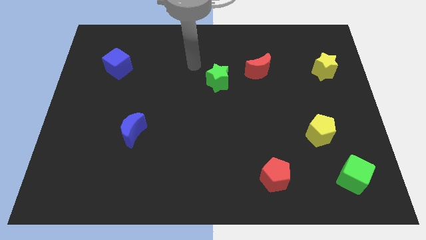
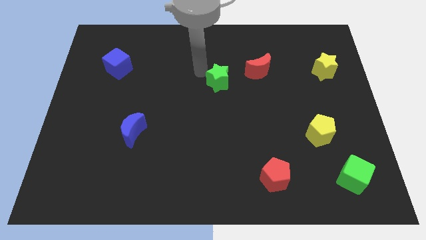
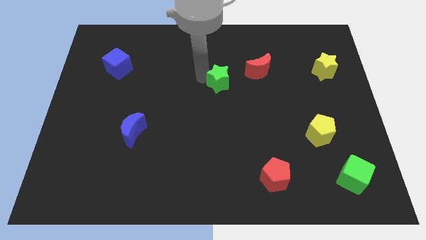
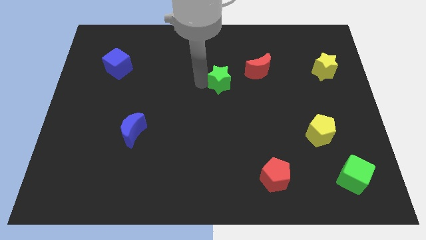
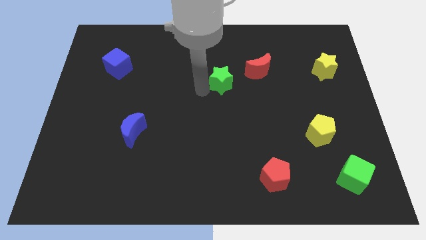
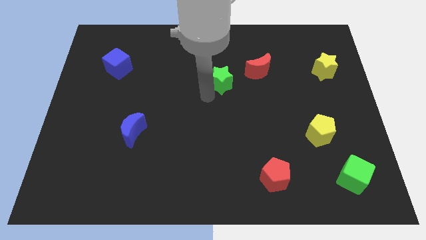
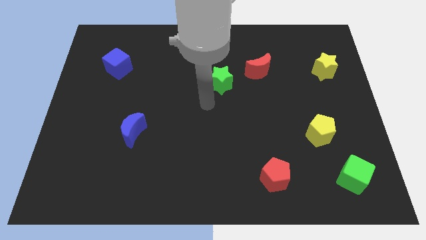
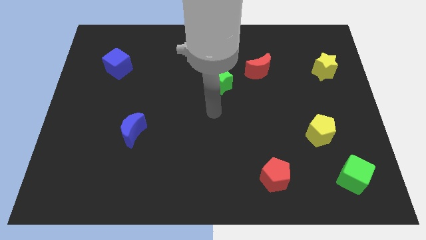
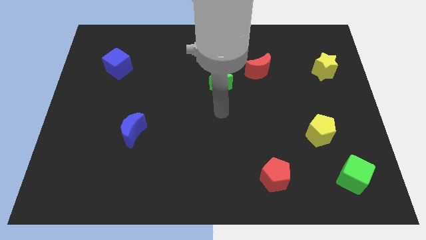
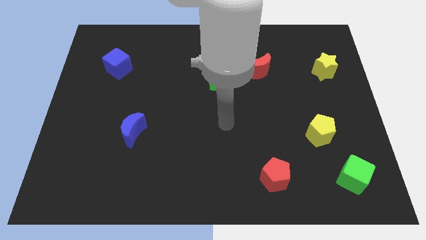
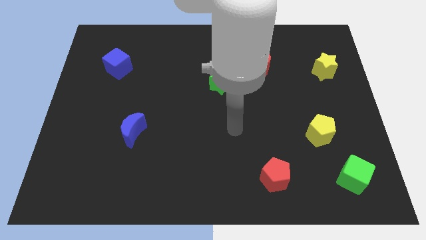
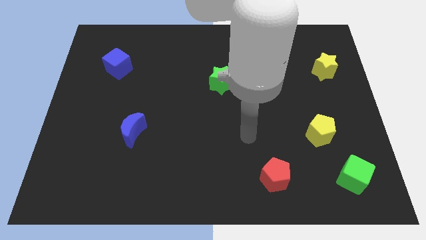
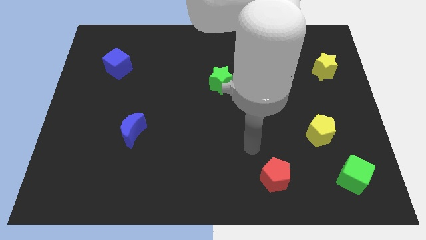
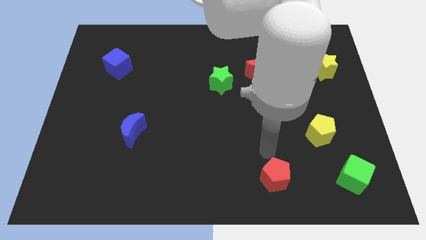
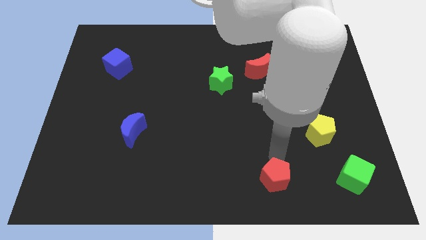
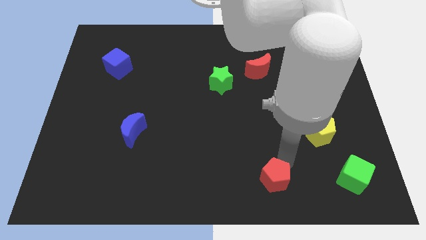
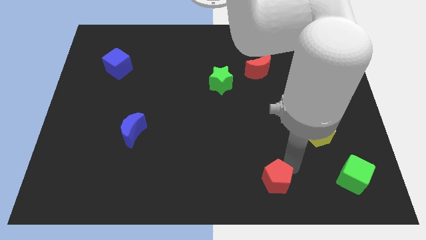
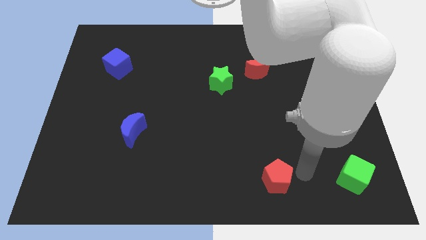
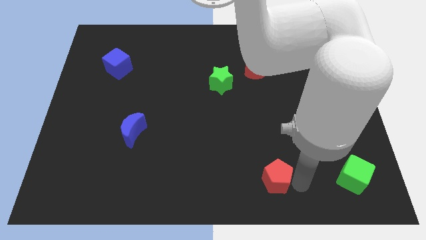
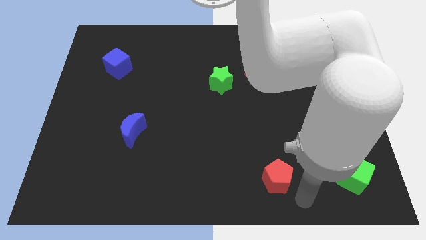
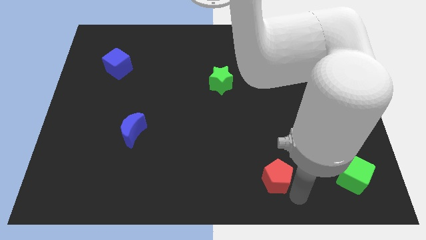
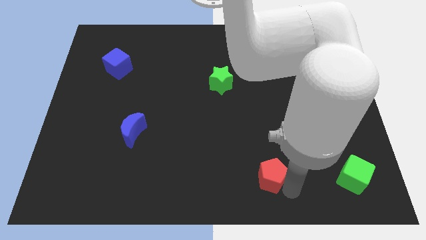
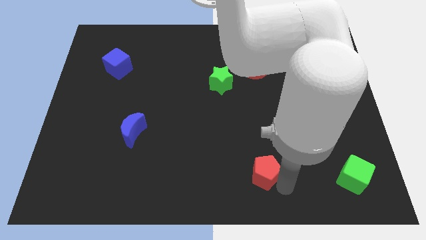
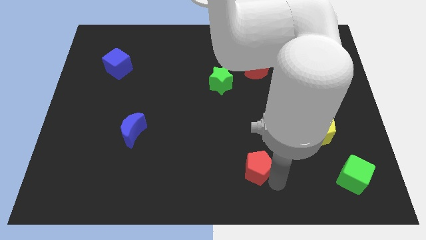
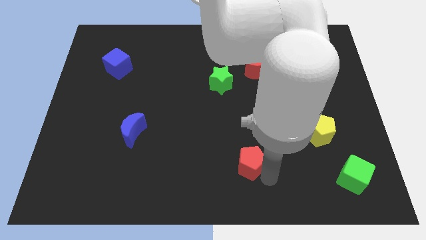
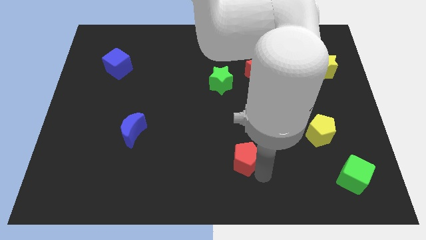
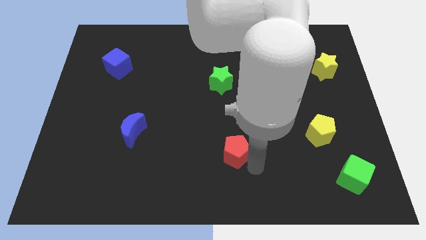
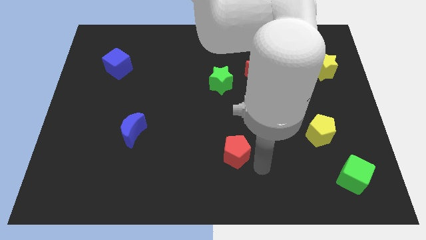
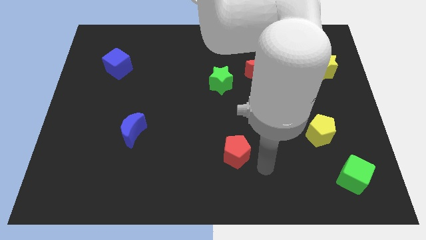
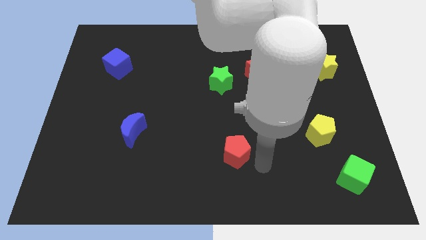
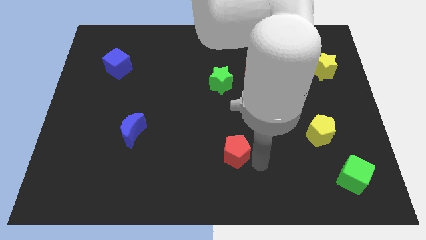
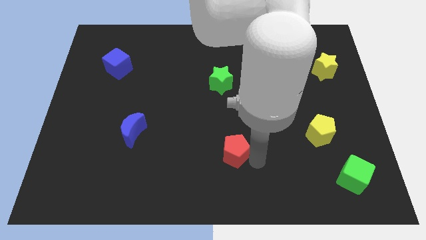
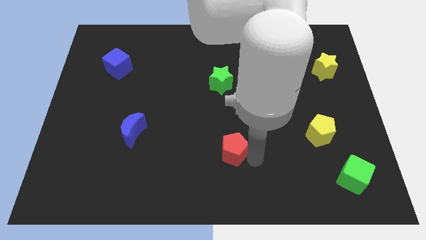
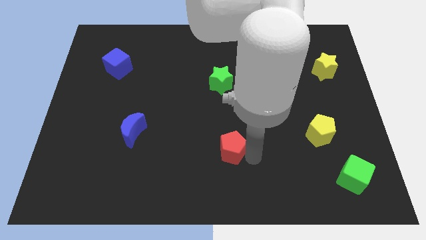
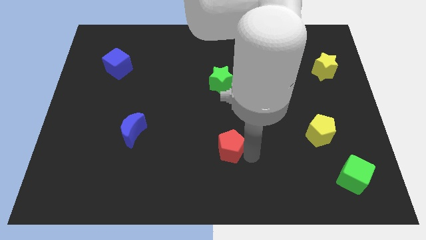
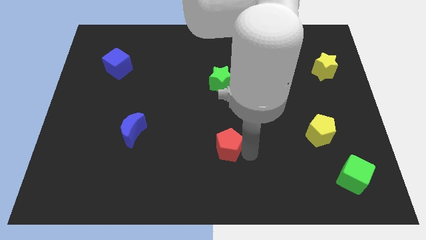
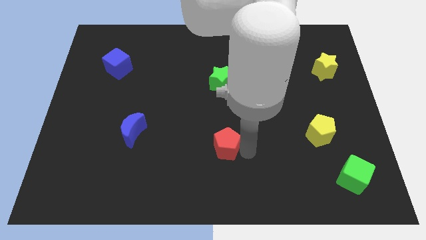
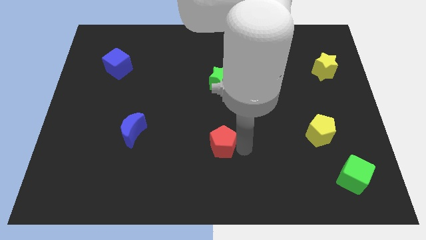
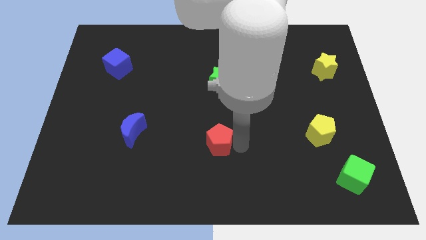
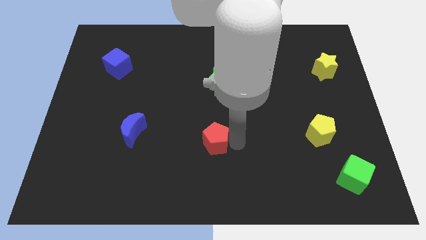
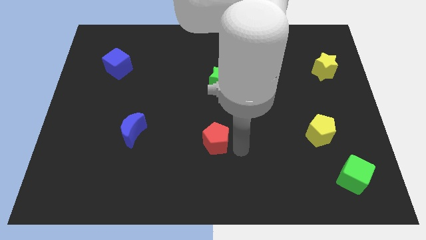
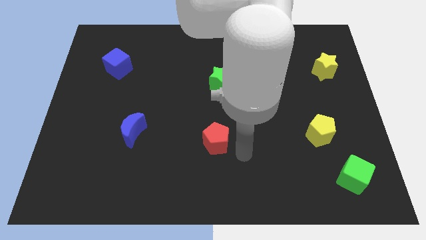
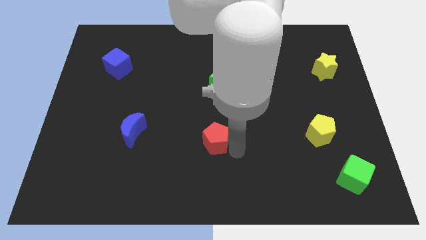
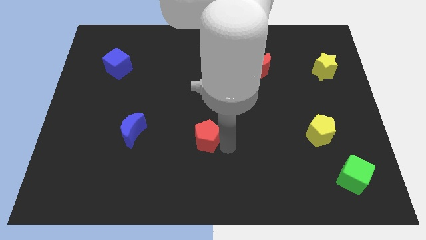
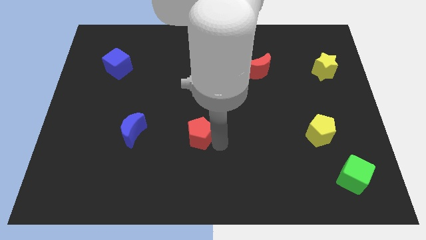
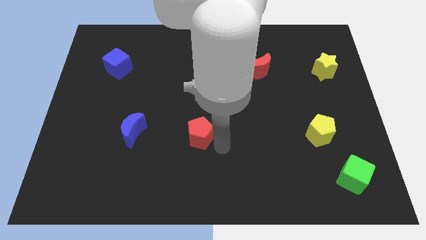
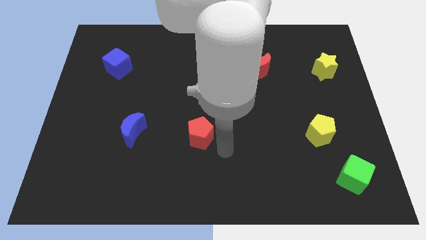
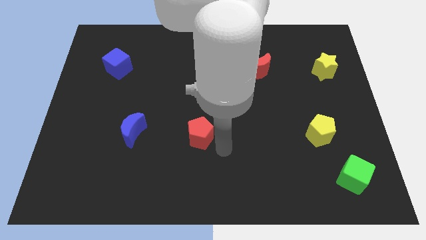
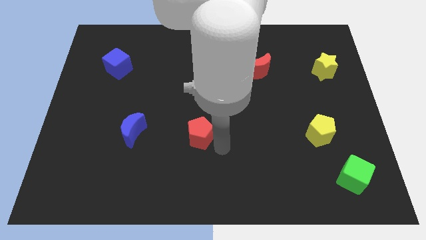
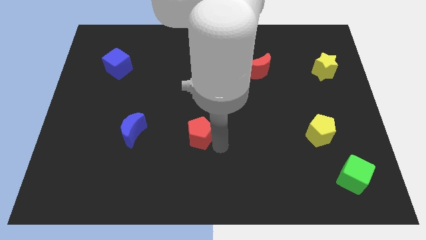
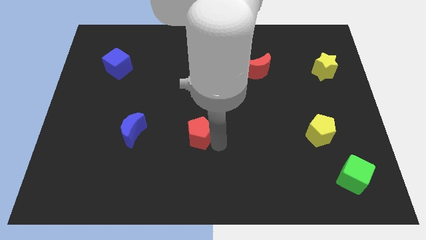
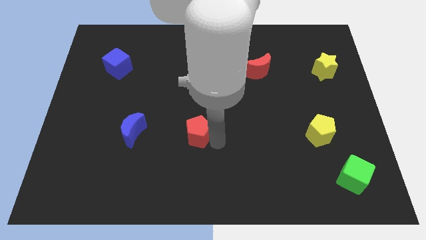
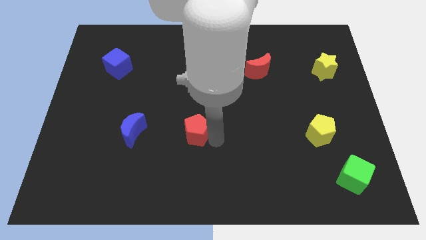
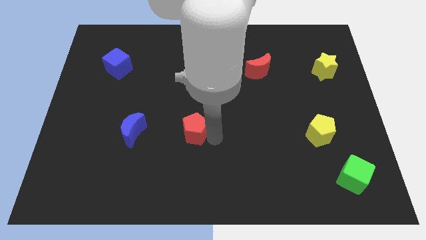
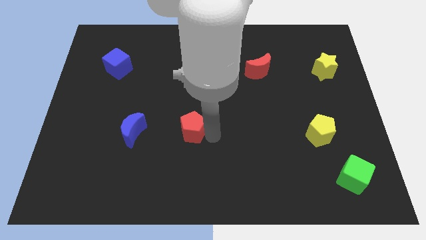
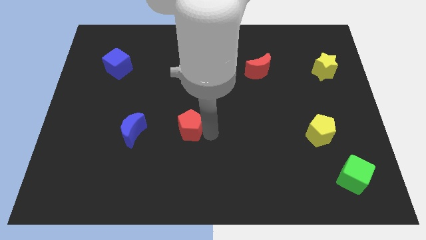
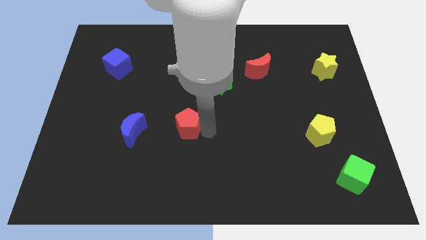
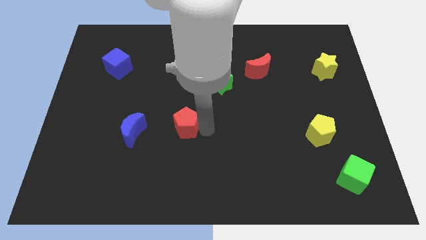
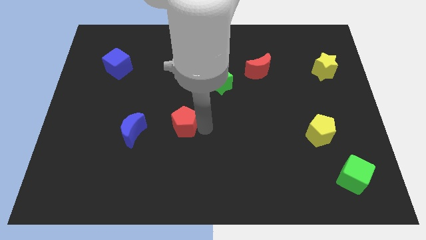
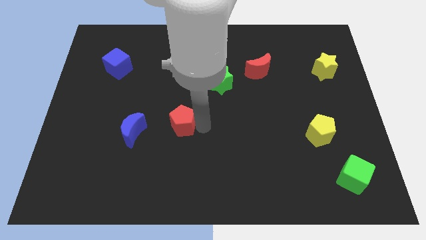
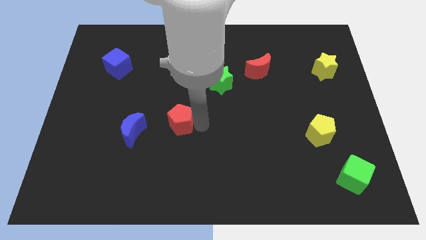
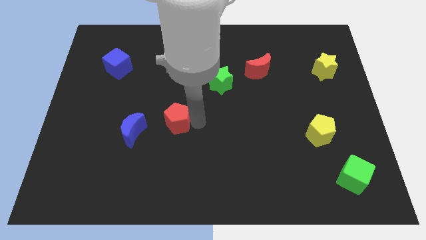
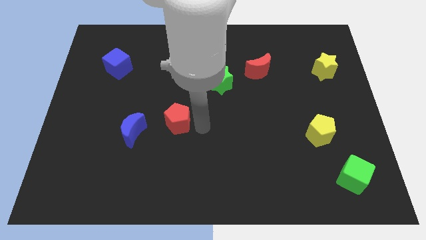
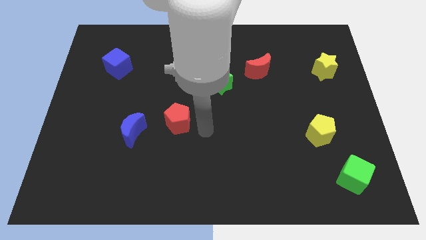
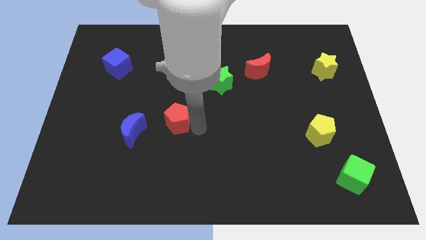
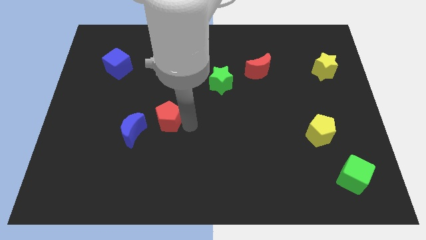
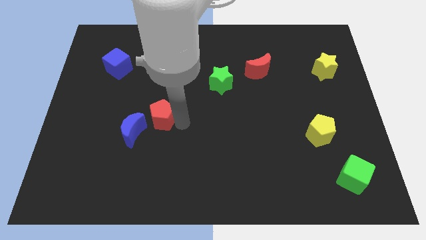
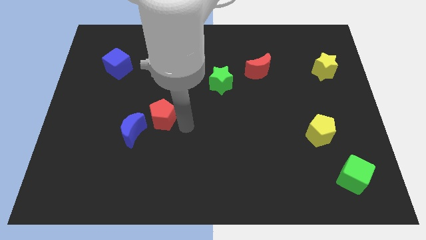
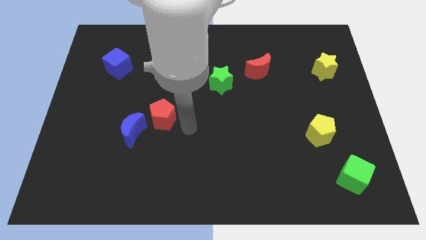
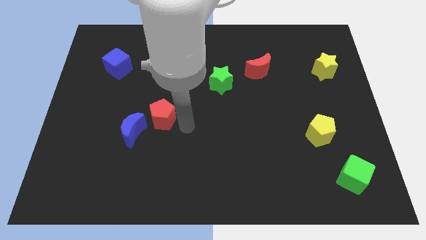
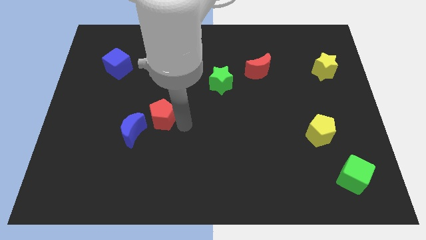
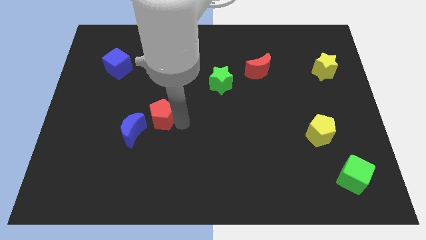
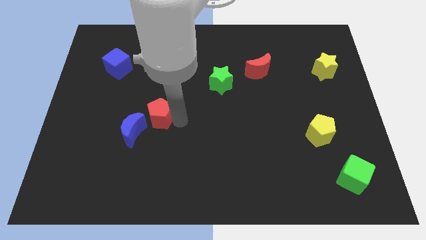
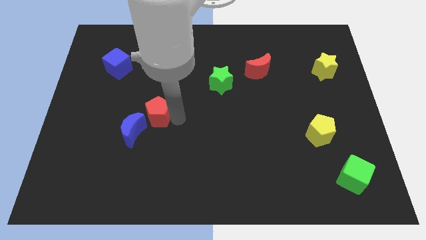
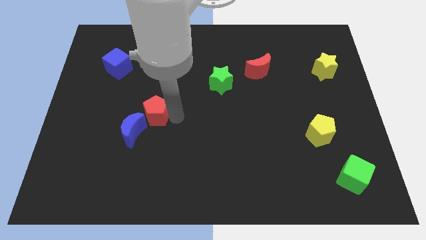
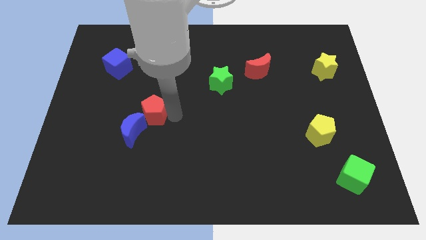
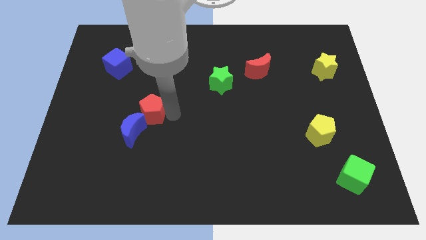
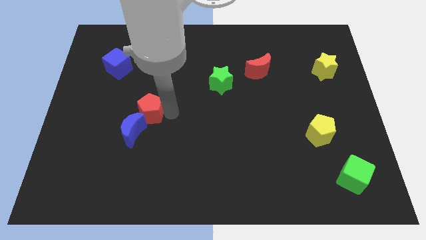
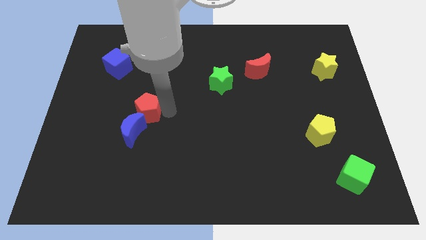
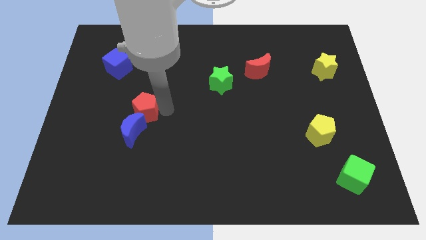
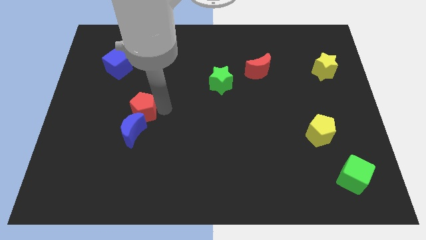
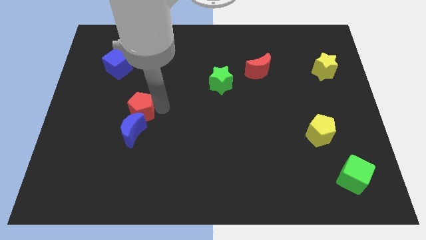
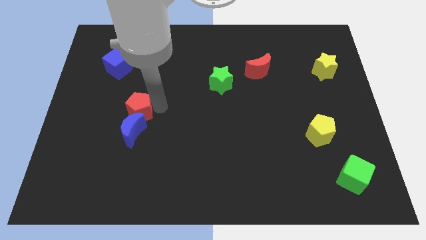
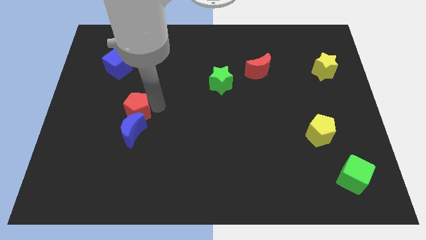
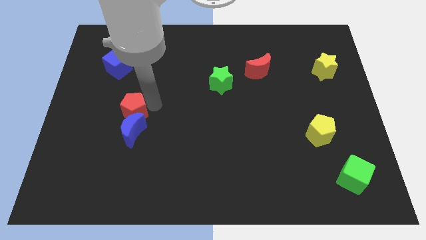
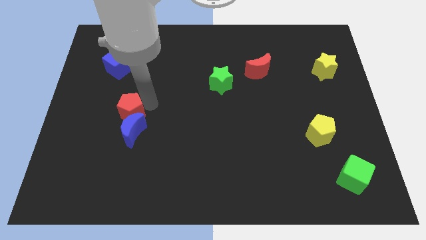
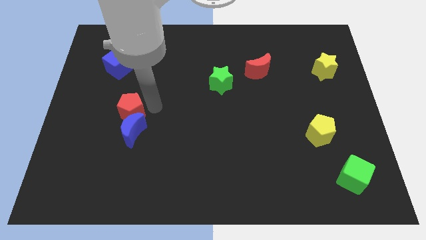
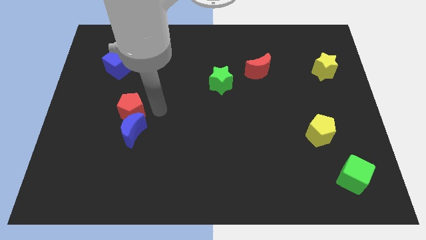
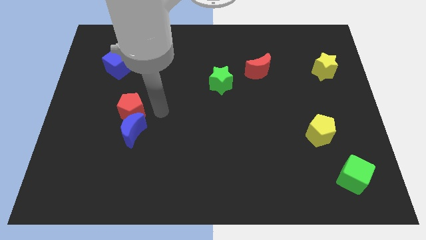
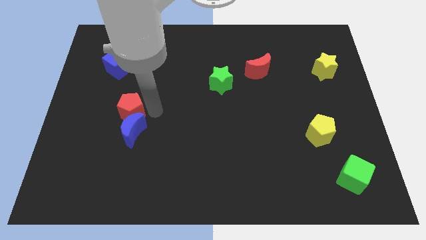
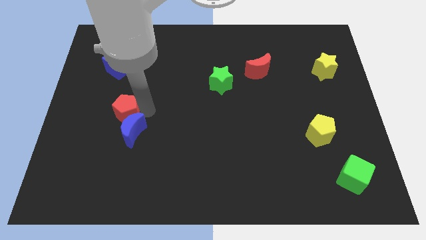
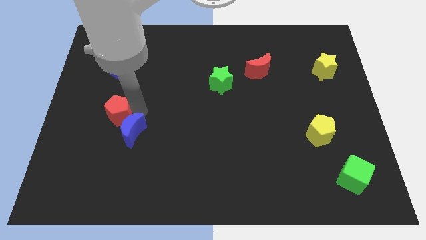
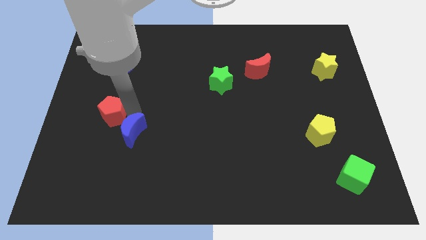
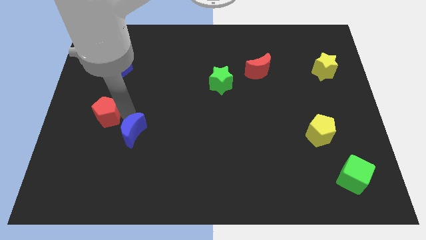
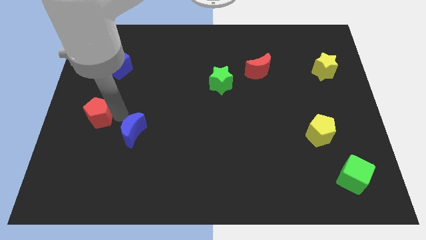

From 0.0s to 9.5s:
put the red pentagon to the left side of the board
